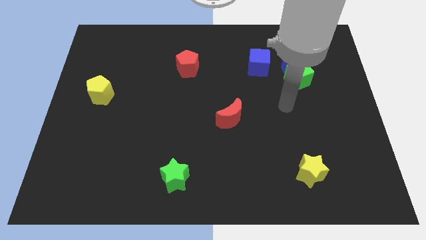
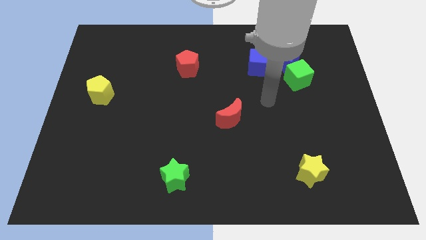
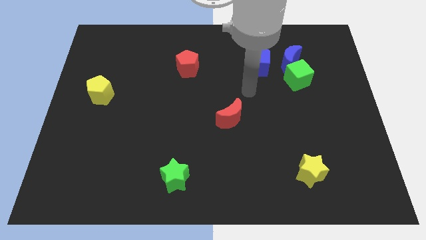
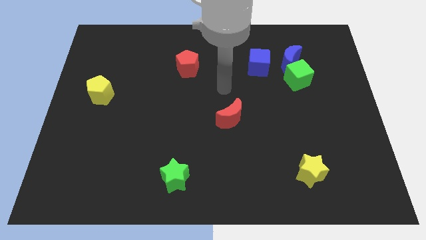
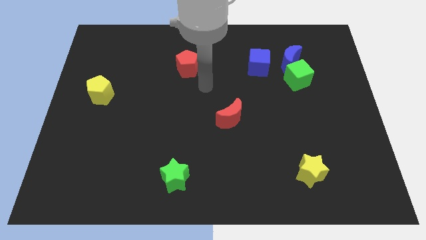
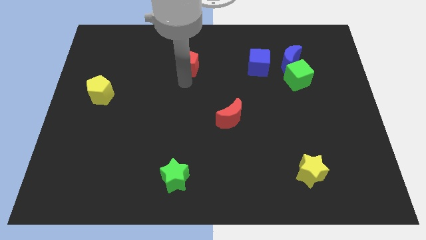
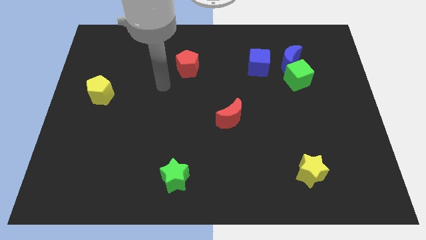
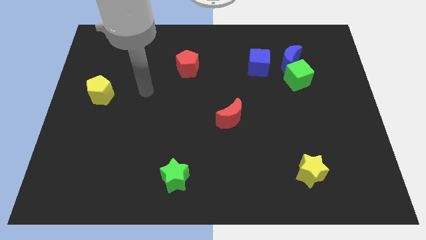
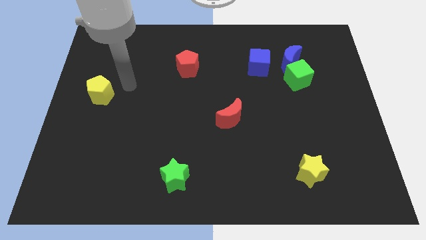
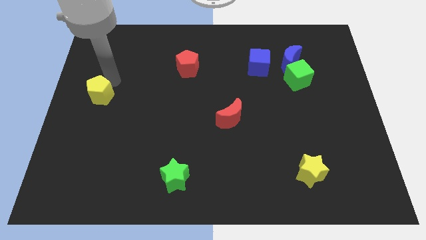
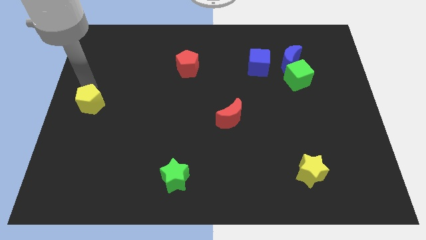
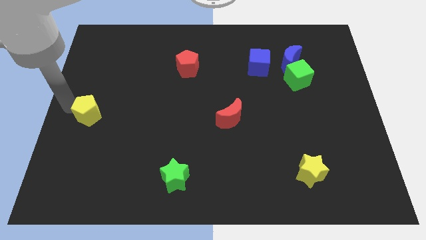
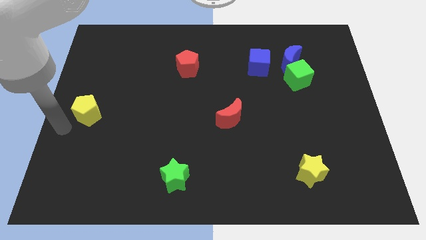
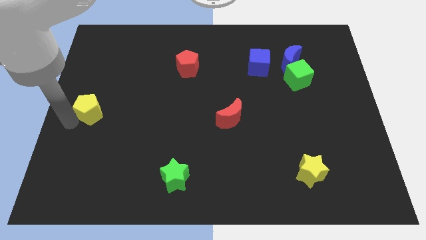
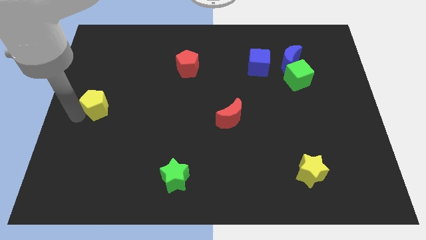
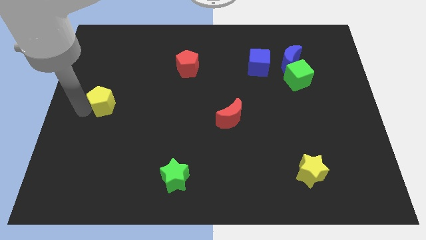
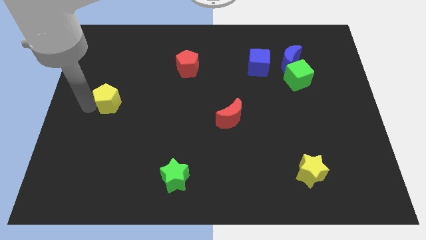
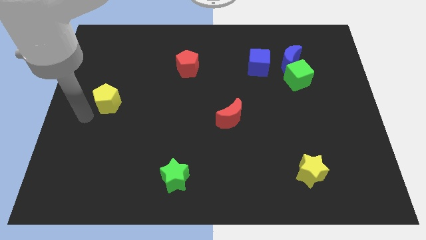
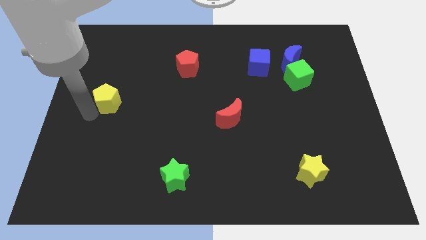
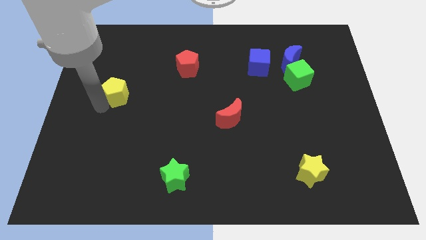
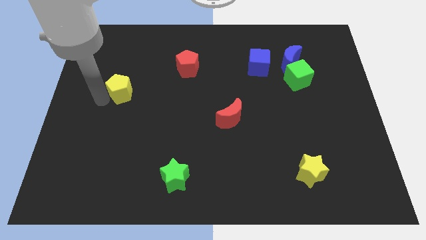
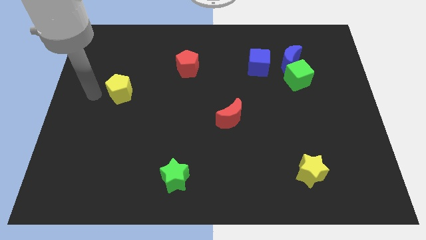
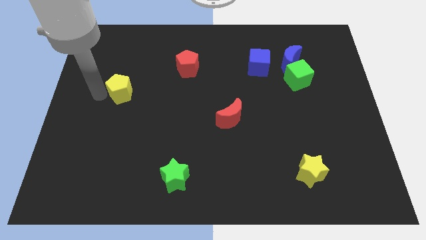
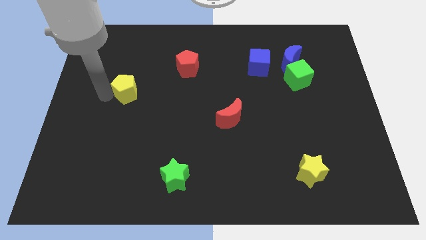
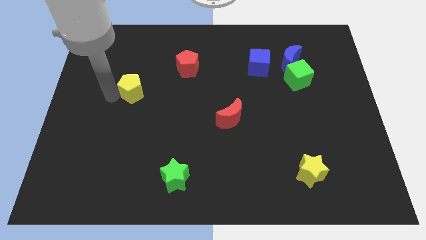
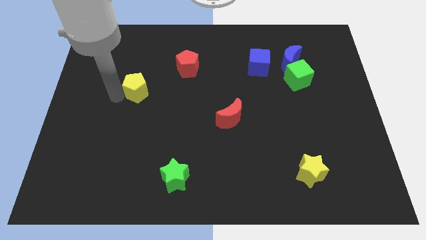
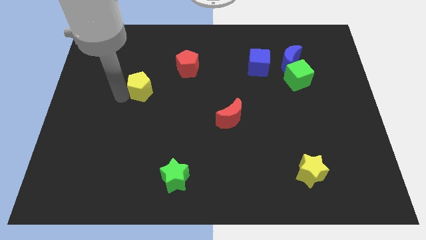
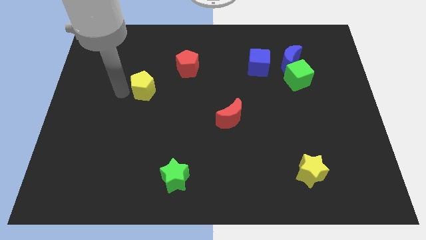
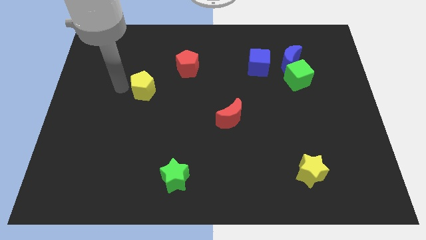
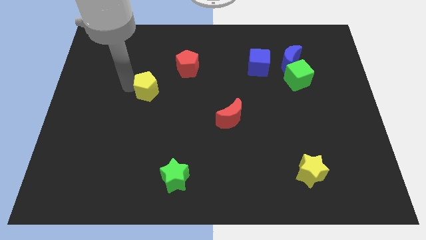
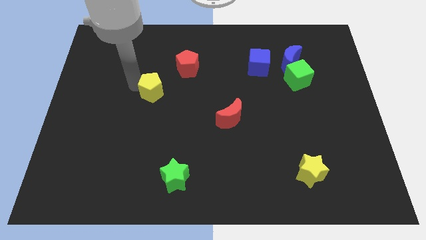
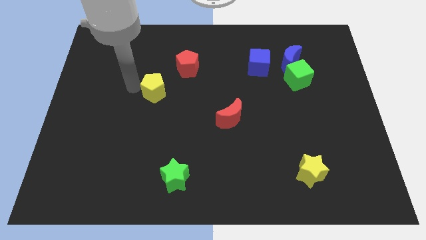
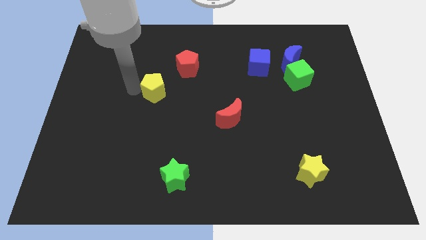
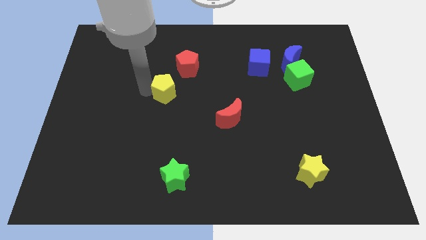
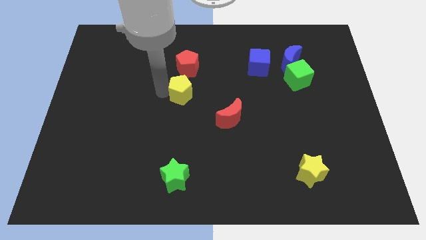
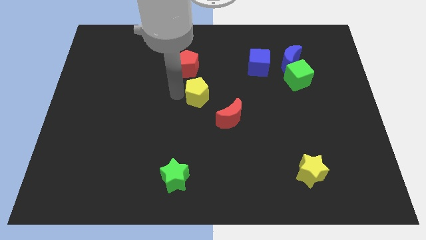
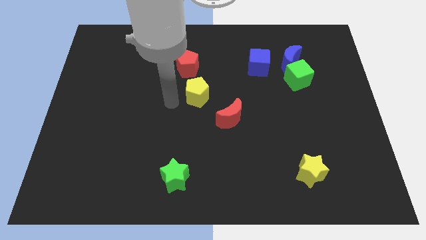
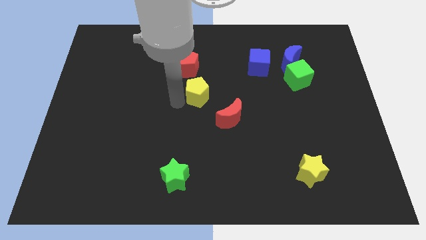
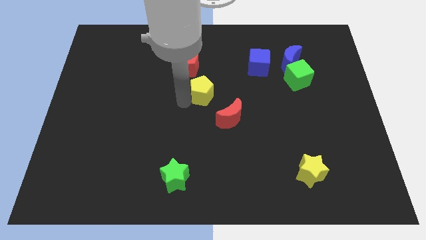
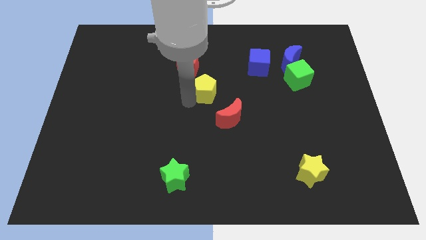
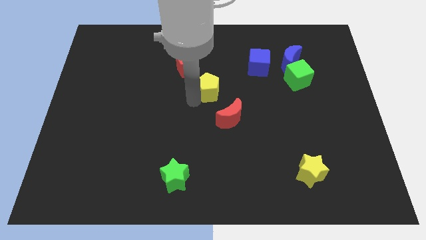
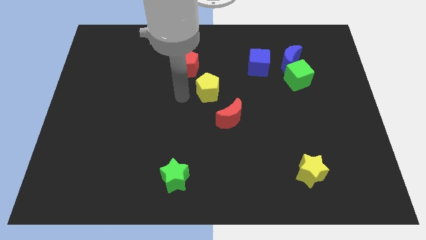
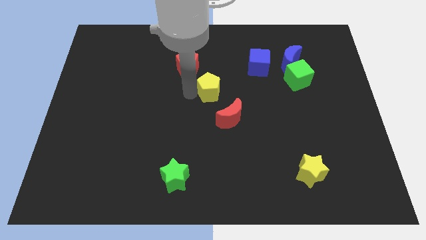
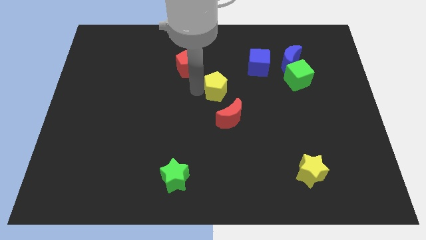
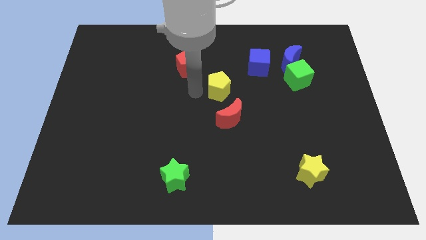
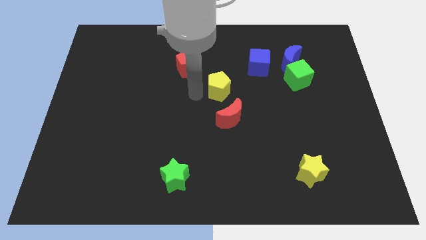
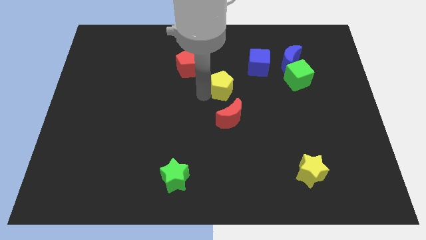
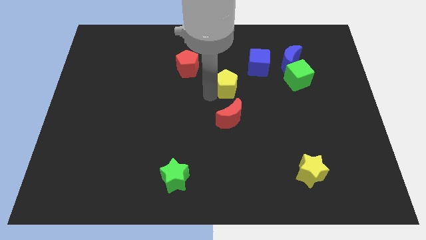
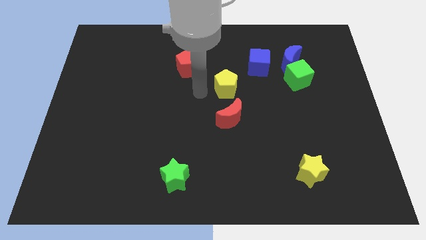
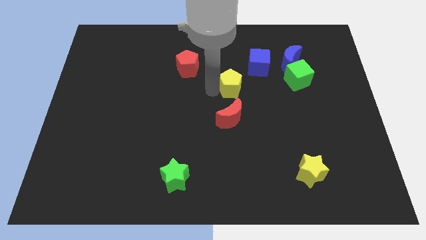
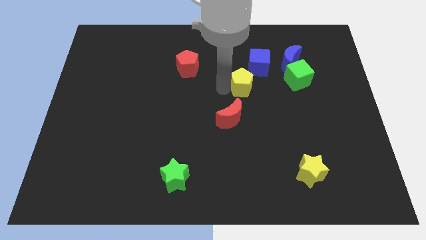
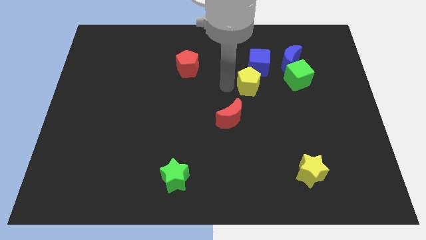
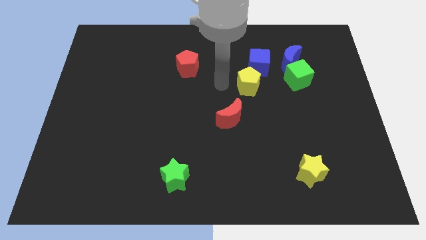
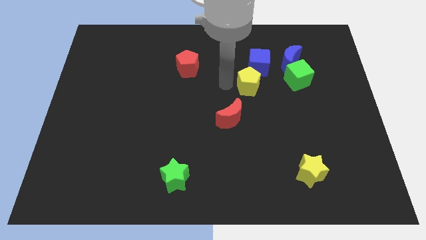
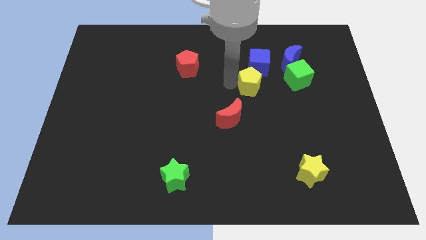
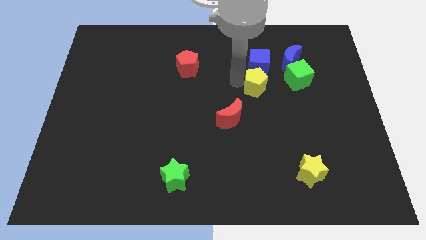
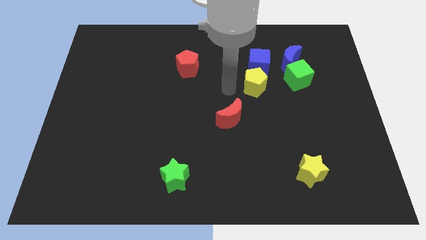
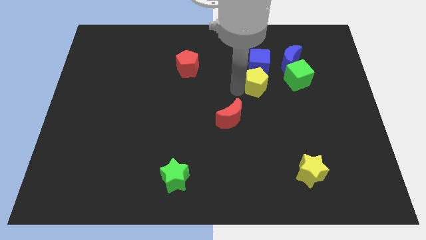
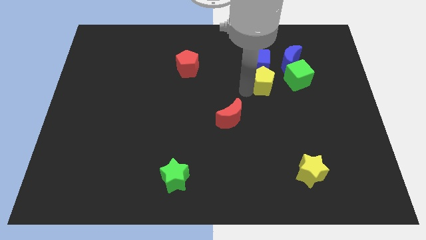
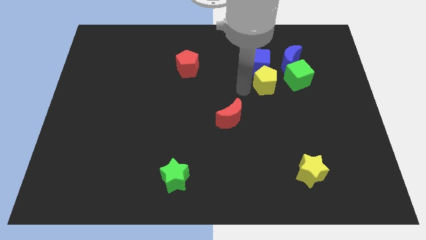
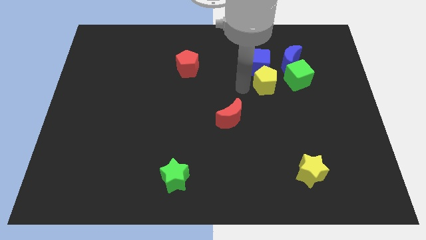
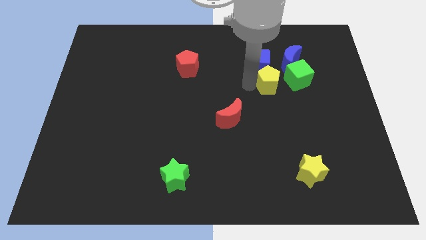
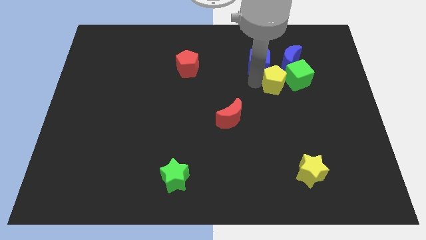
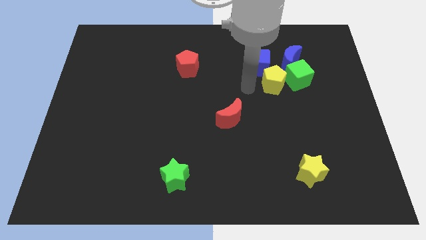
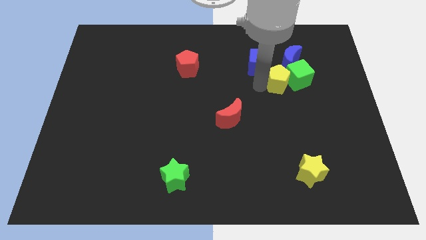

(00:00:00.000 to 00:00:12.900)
slide the yellow pentagon to the green cube

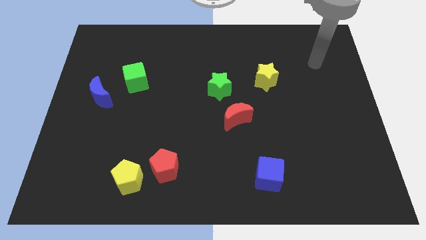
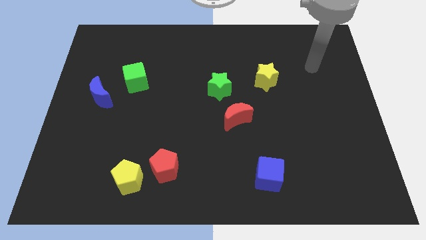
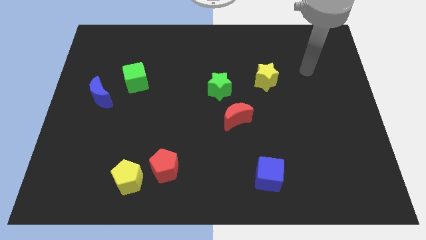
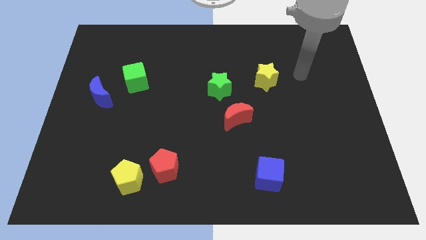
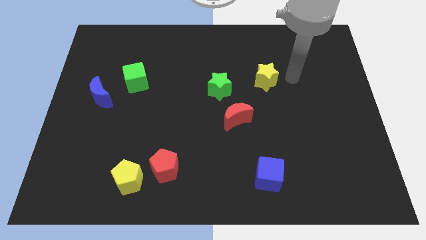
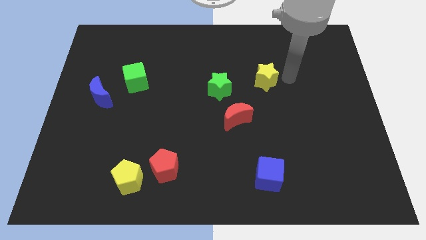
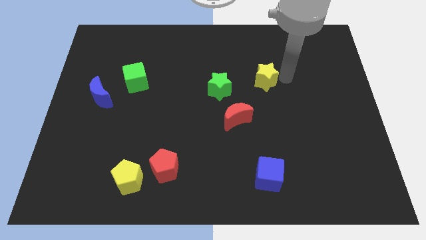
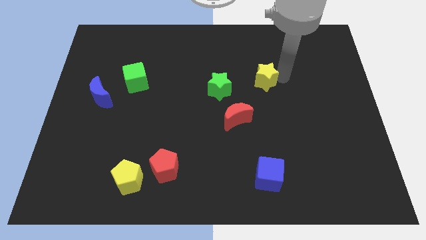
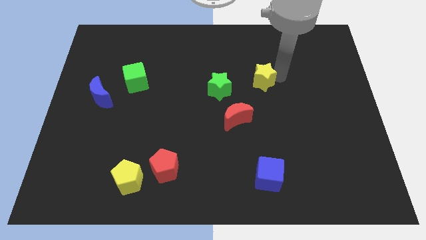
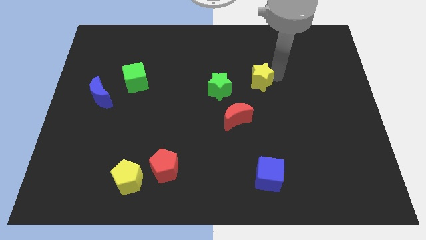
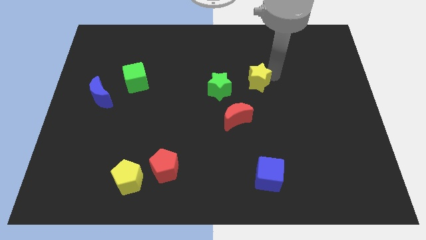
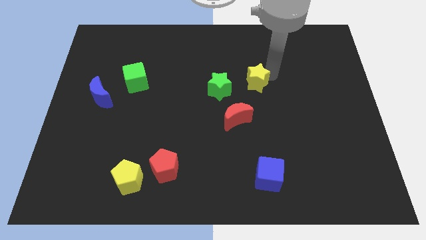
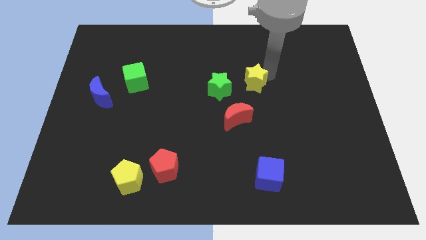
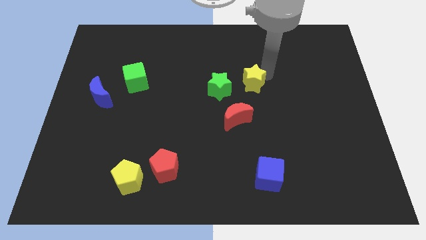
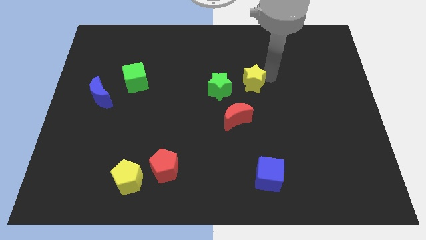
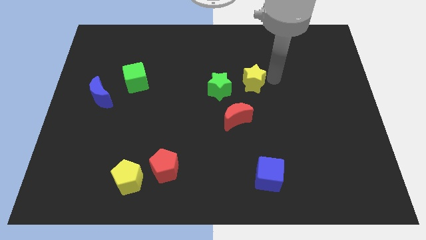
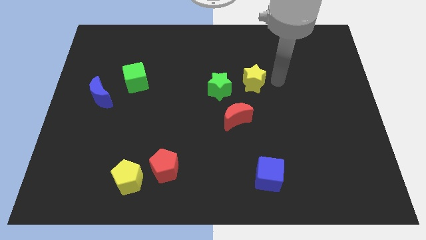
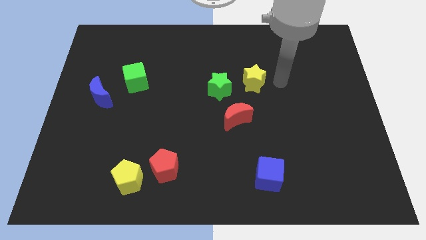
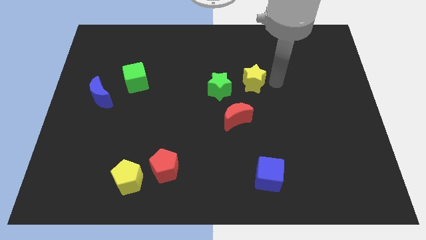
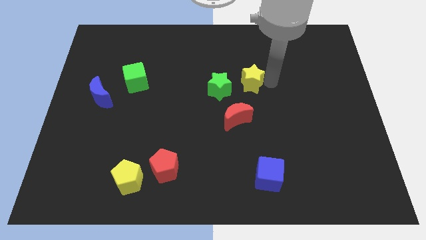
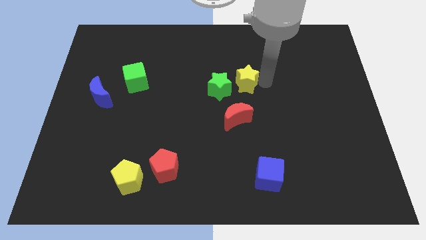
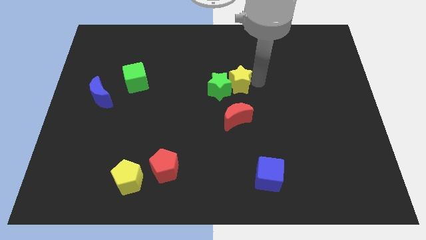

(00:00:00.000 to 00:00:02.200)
push the yellow star close to the green star
